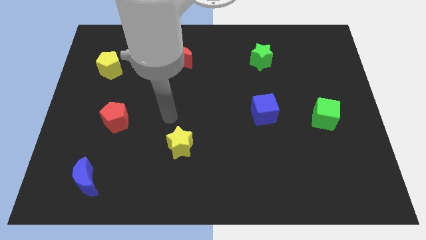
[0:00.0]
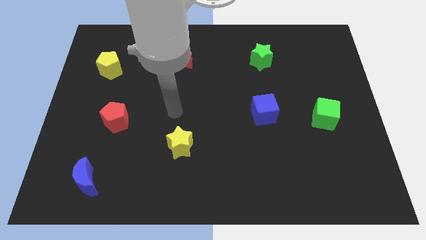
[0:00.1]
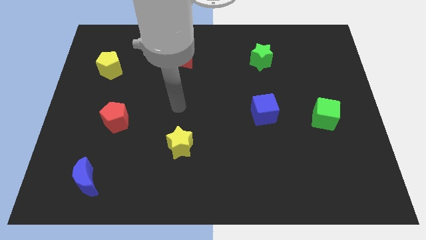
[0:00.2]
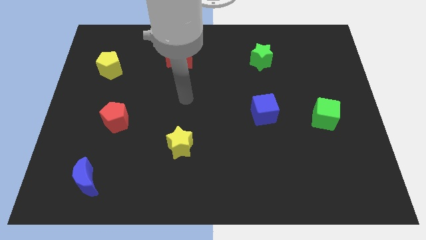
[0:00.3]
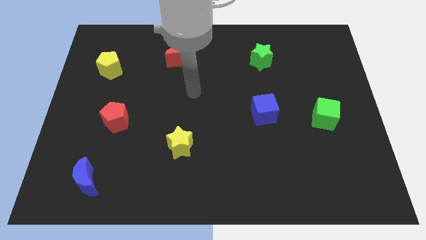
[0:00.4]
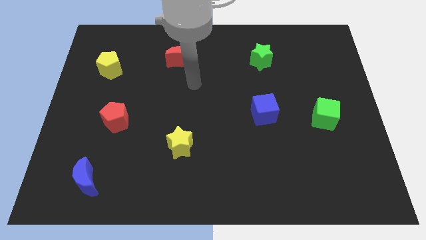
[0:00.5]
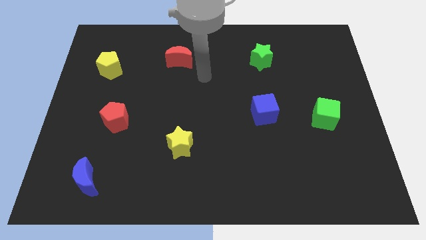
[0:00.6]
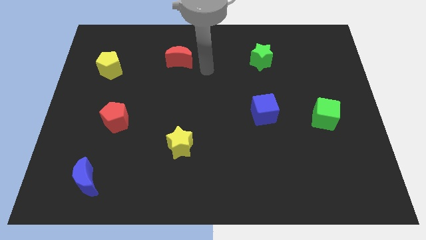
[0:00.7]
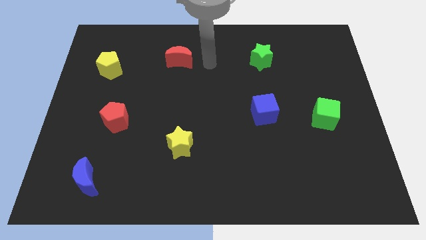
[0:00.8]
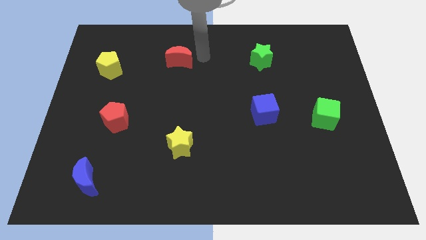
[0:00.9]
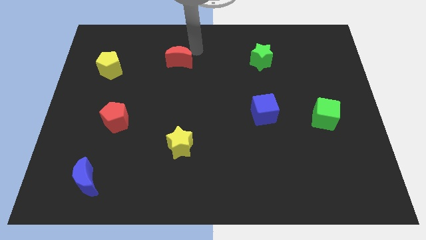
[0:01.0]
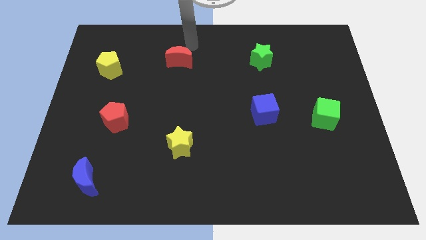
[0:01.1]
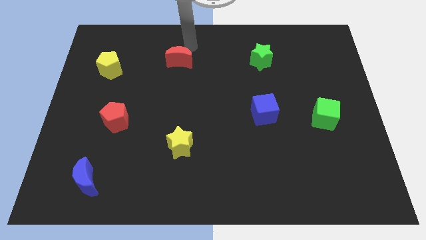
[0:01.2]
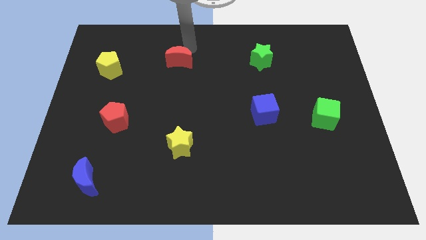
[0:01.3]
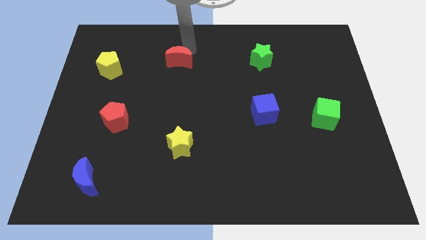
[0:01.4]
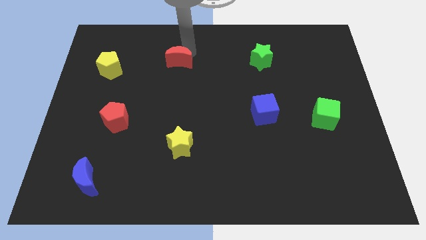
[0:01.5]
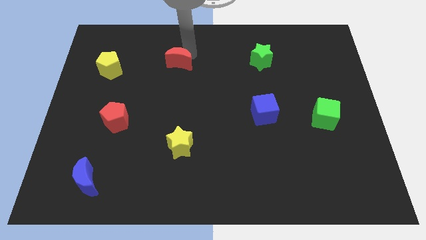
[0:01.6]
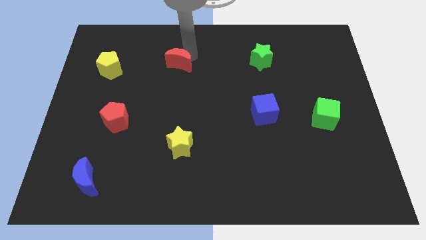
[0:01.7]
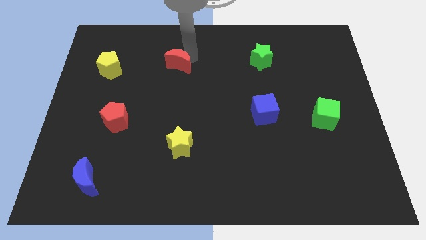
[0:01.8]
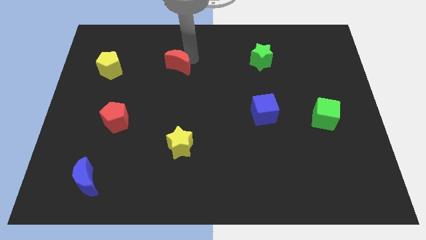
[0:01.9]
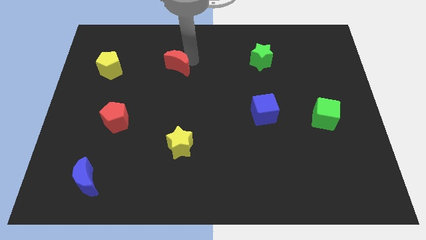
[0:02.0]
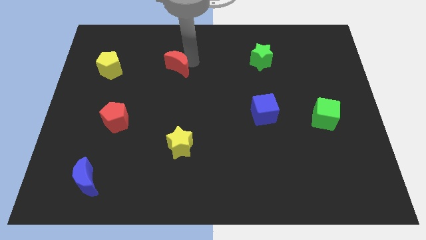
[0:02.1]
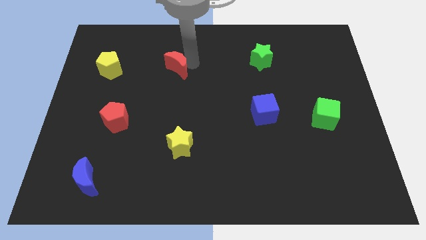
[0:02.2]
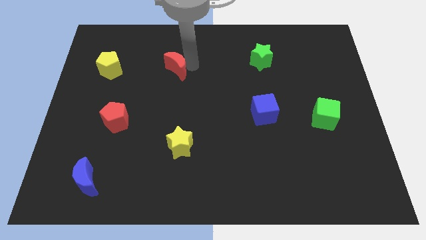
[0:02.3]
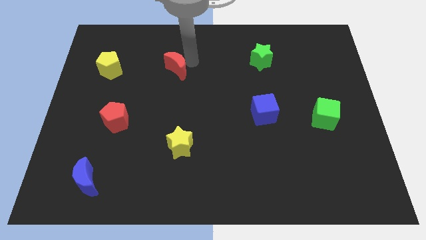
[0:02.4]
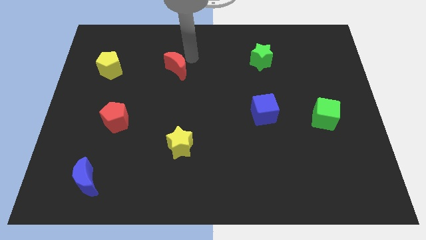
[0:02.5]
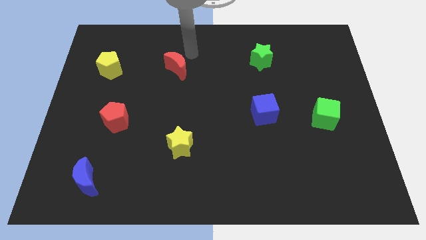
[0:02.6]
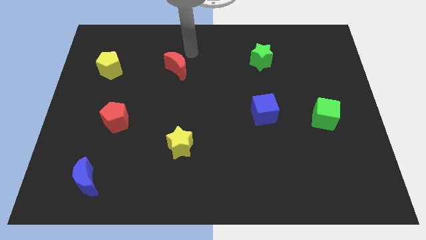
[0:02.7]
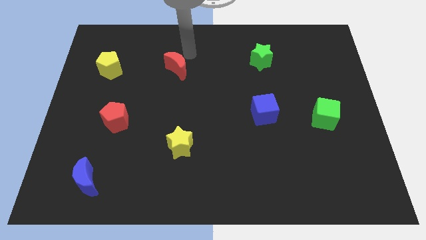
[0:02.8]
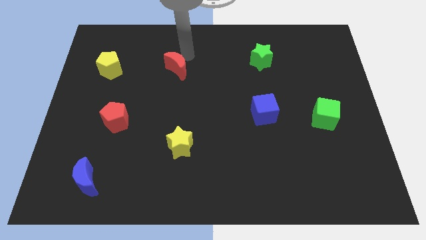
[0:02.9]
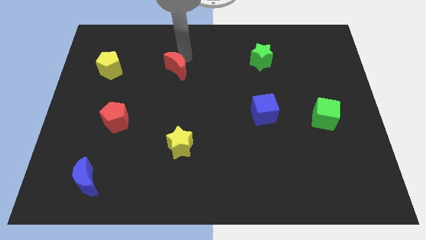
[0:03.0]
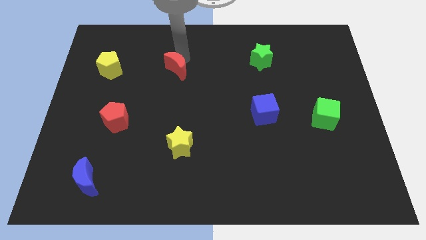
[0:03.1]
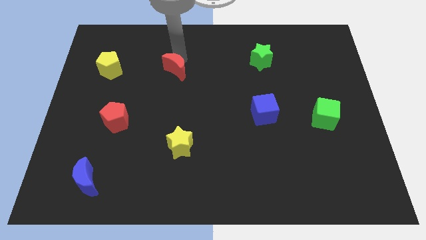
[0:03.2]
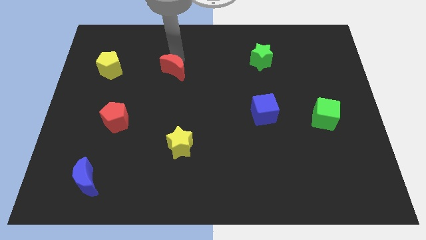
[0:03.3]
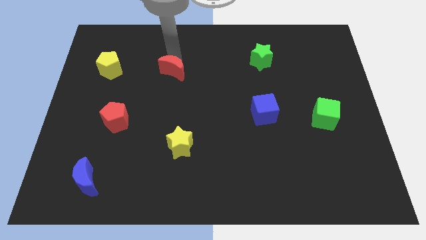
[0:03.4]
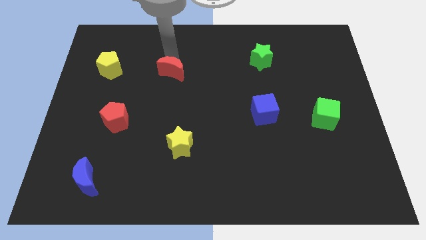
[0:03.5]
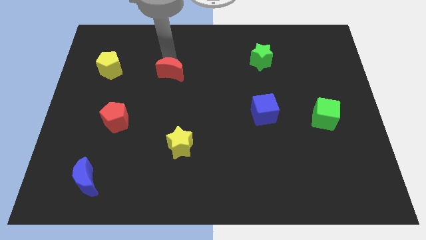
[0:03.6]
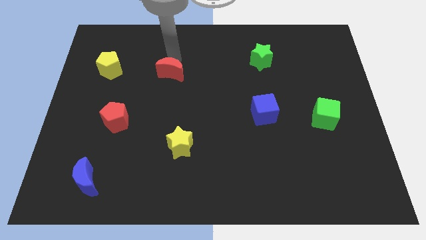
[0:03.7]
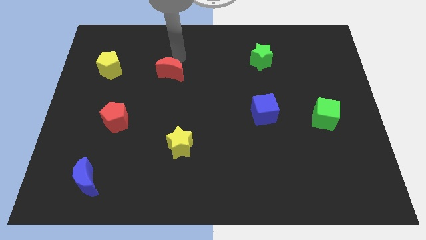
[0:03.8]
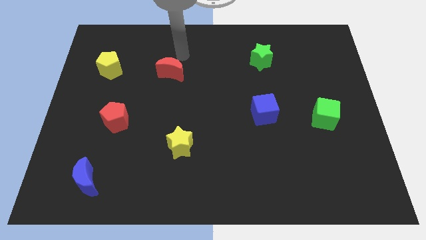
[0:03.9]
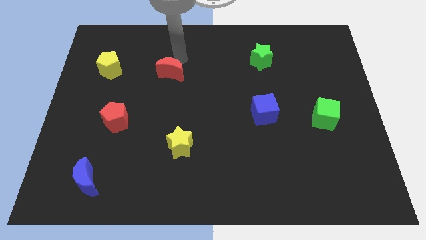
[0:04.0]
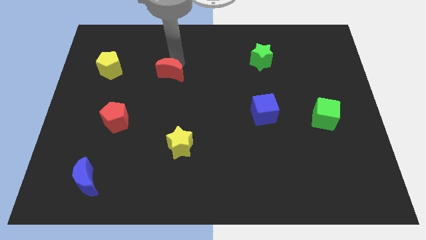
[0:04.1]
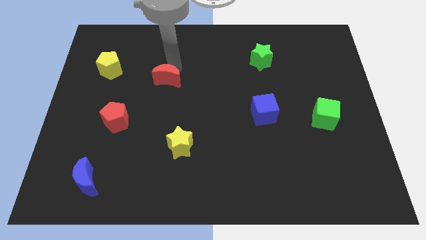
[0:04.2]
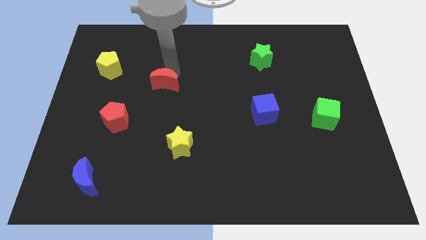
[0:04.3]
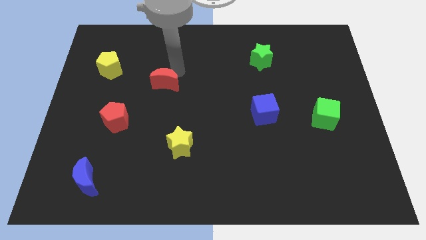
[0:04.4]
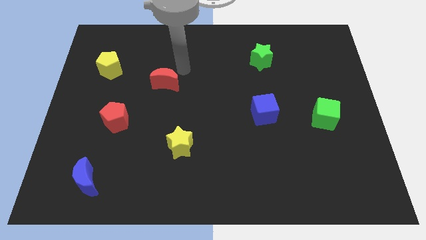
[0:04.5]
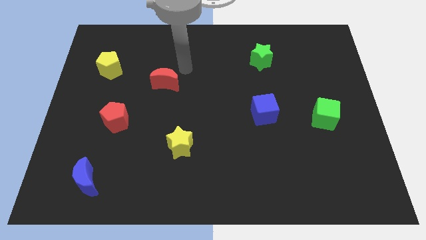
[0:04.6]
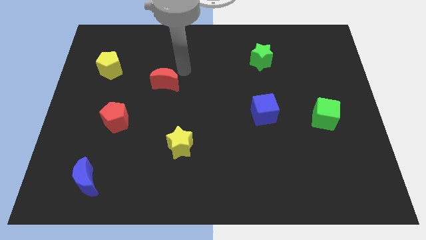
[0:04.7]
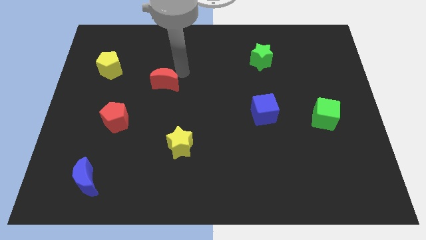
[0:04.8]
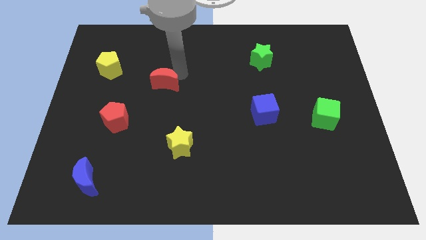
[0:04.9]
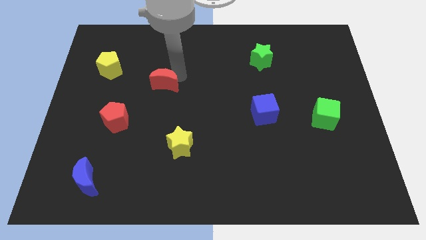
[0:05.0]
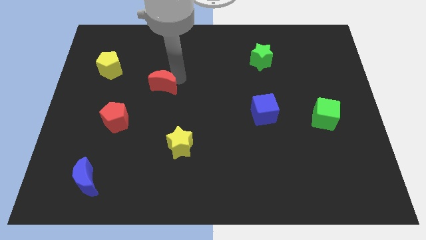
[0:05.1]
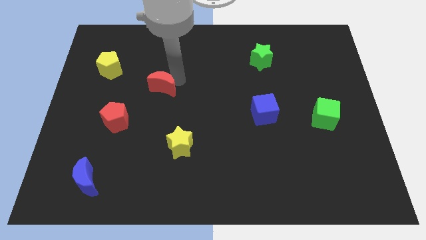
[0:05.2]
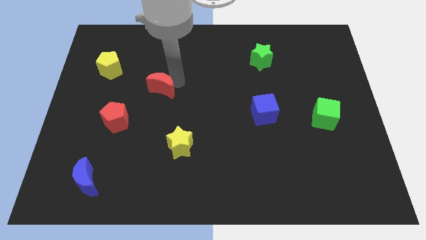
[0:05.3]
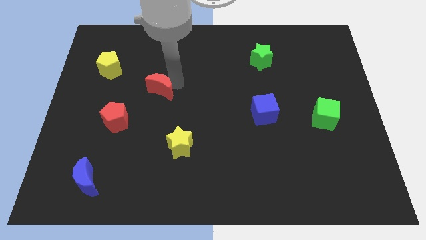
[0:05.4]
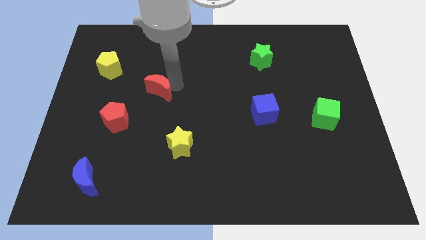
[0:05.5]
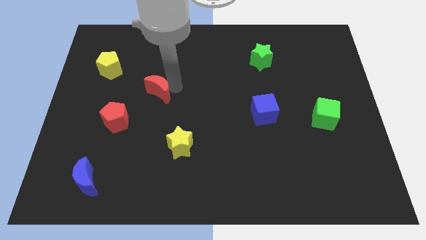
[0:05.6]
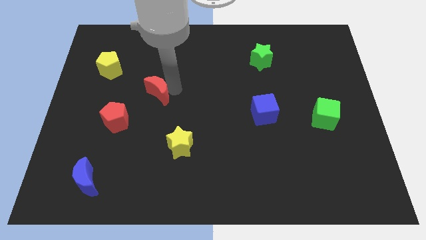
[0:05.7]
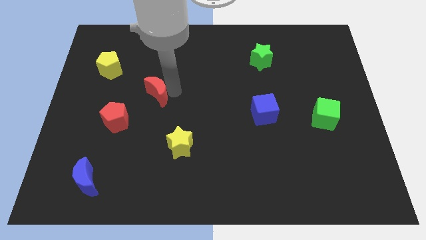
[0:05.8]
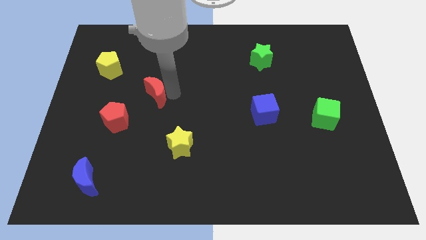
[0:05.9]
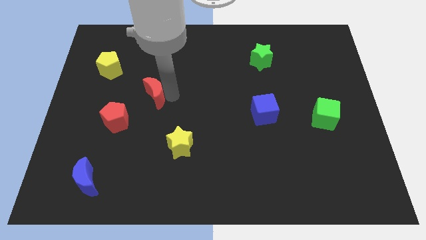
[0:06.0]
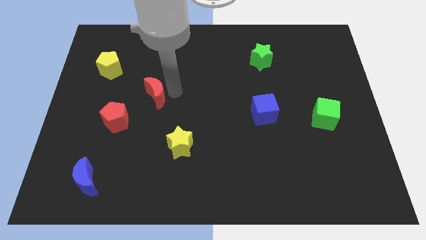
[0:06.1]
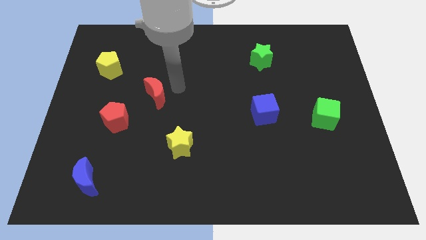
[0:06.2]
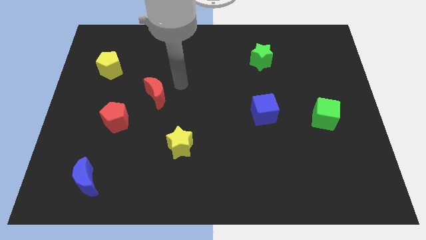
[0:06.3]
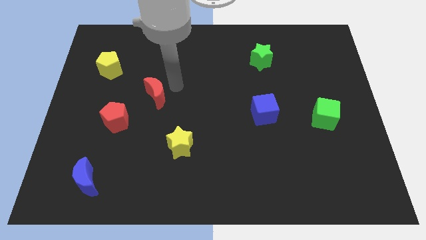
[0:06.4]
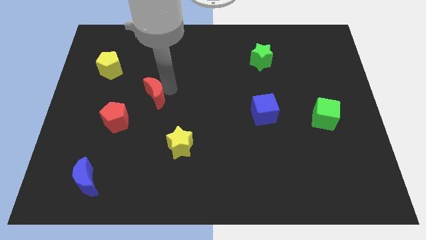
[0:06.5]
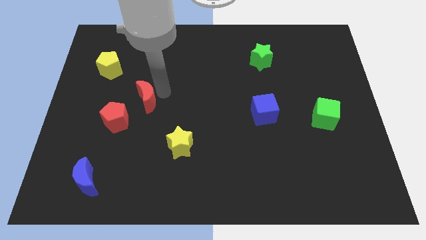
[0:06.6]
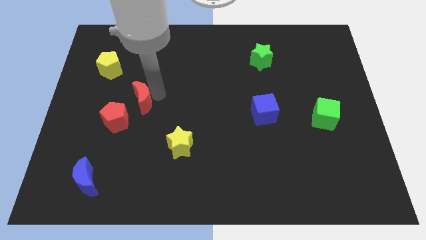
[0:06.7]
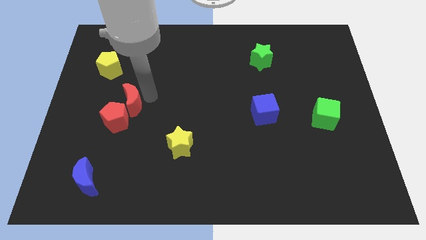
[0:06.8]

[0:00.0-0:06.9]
push the red moon close to the red pentagon
